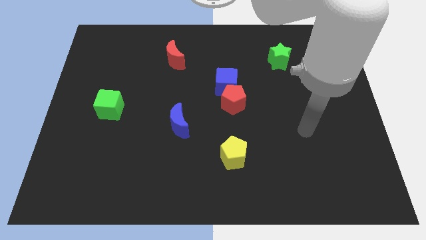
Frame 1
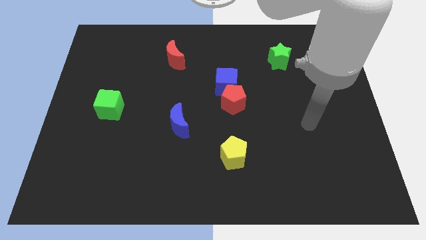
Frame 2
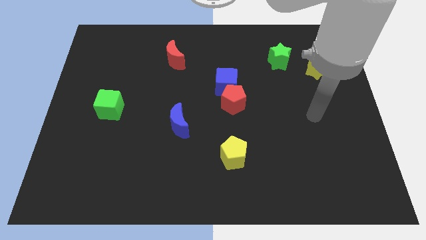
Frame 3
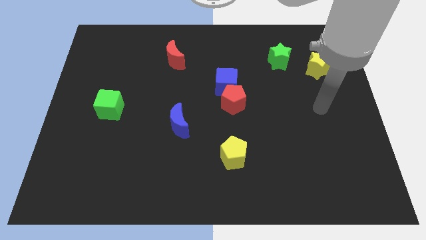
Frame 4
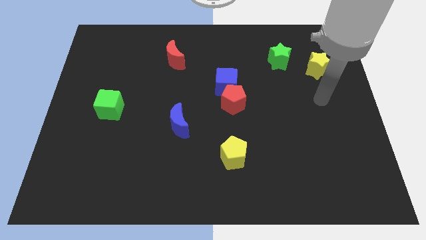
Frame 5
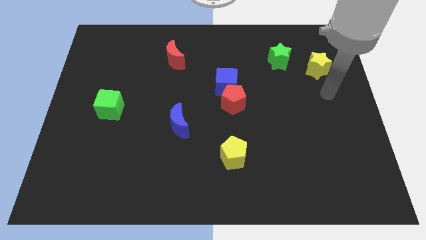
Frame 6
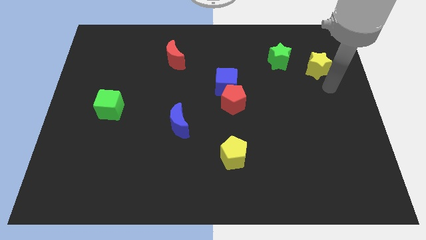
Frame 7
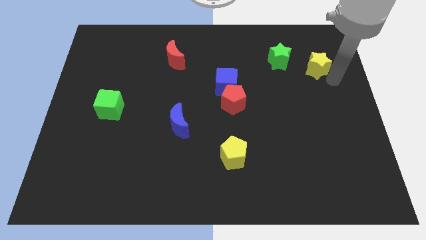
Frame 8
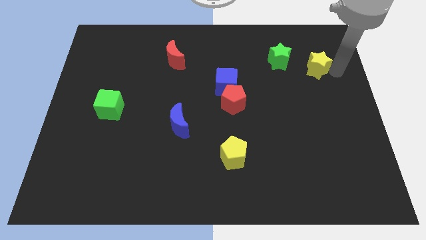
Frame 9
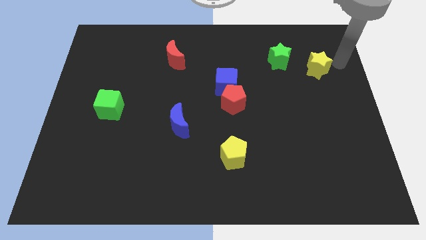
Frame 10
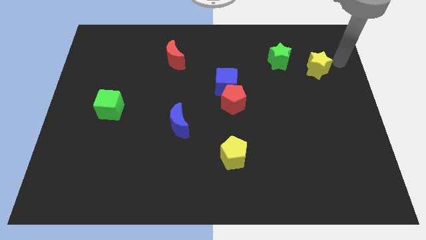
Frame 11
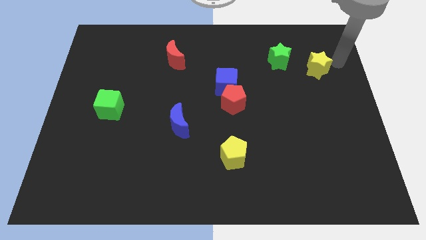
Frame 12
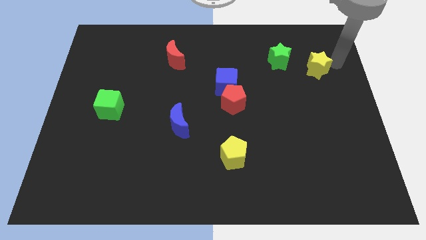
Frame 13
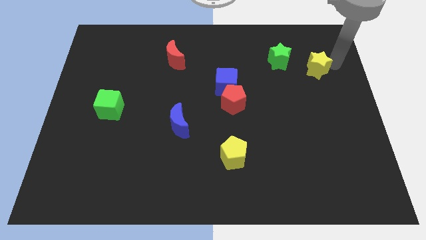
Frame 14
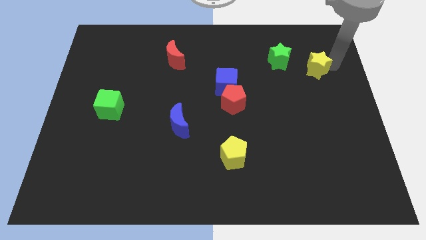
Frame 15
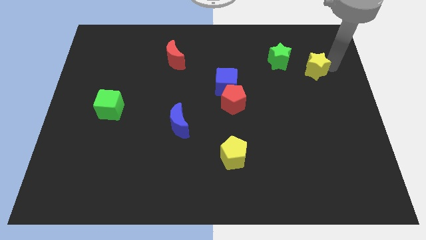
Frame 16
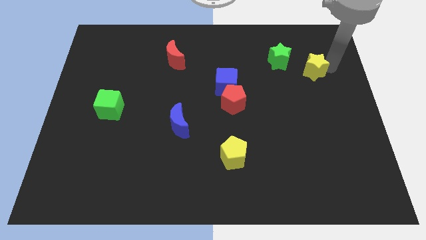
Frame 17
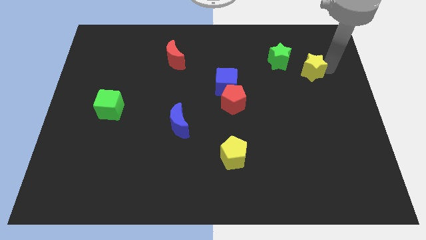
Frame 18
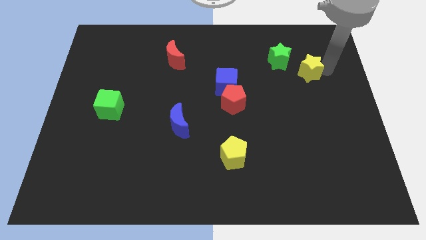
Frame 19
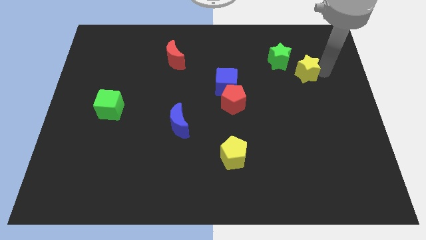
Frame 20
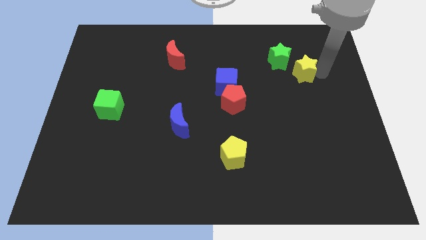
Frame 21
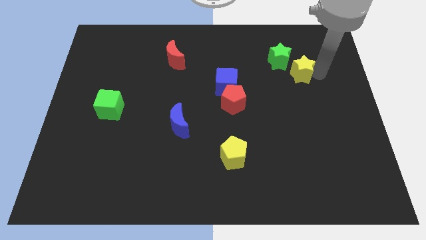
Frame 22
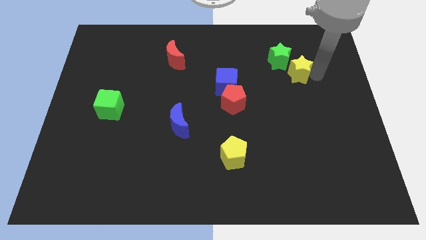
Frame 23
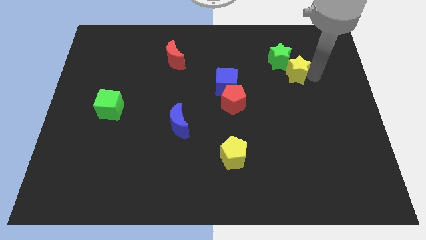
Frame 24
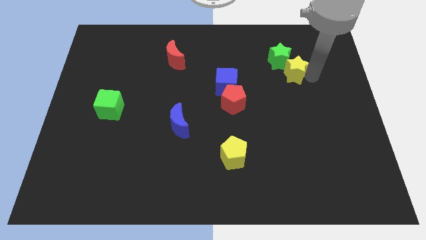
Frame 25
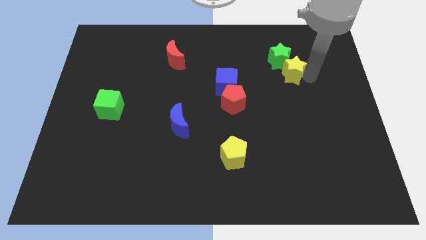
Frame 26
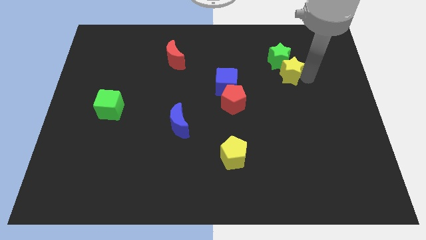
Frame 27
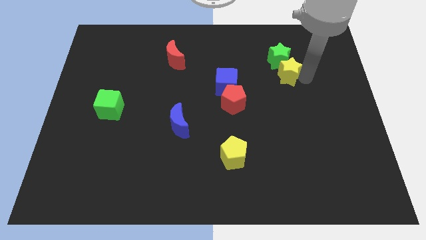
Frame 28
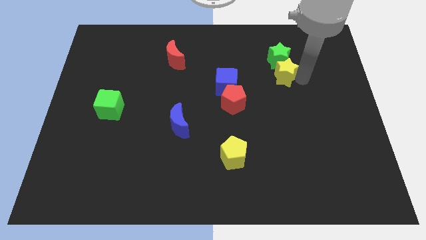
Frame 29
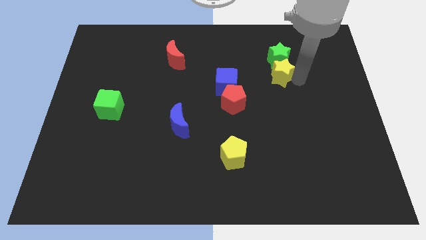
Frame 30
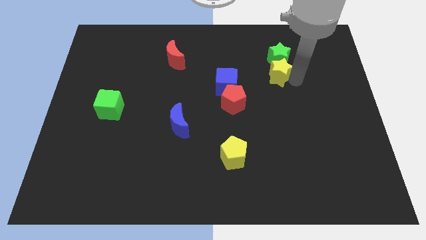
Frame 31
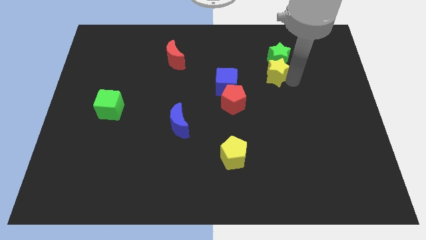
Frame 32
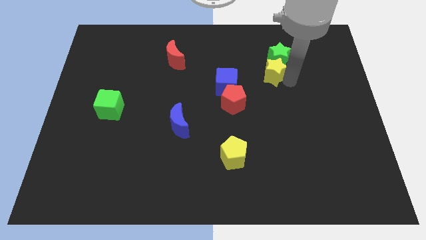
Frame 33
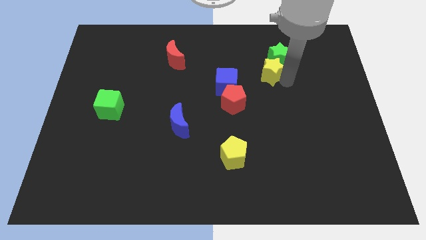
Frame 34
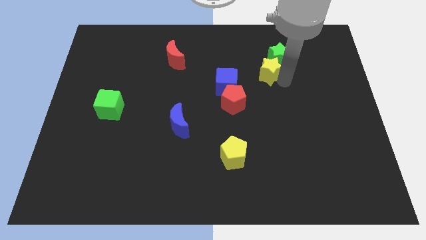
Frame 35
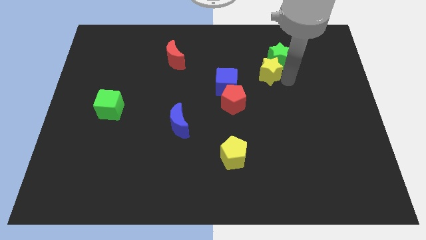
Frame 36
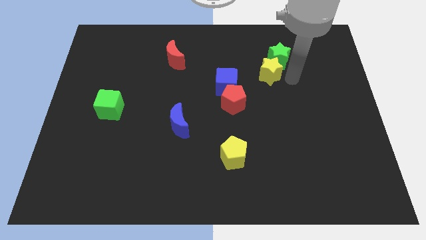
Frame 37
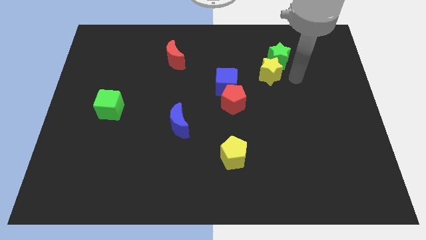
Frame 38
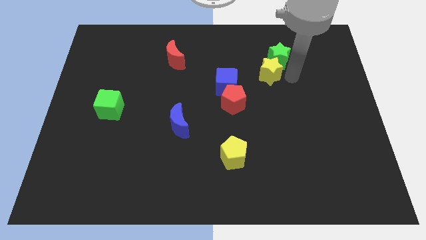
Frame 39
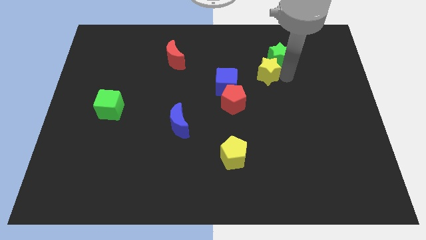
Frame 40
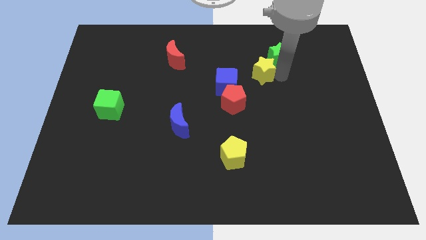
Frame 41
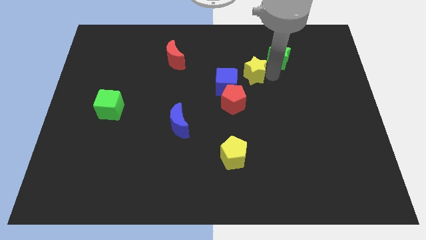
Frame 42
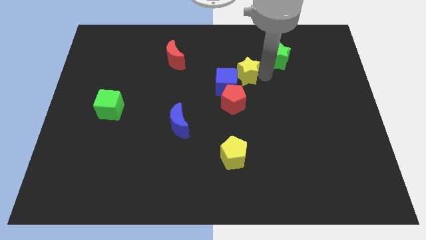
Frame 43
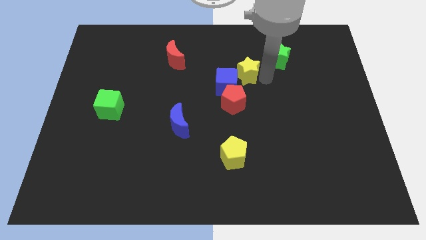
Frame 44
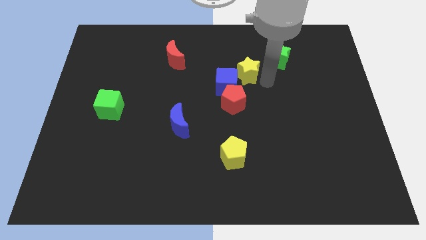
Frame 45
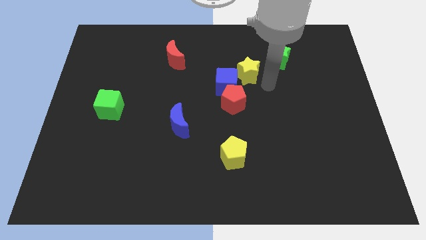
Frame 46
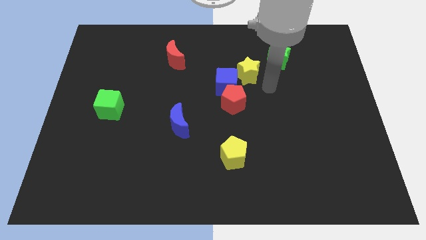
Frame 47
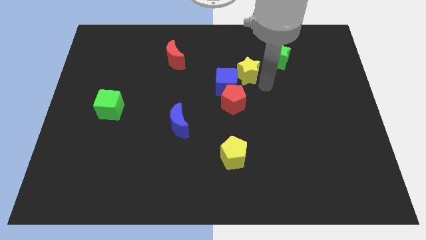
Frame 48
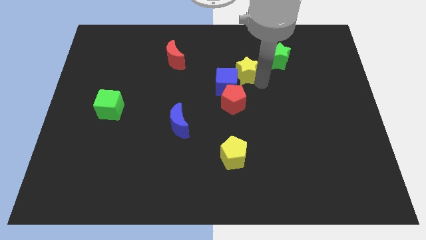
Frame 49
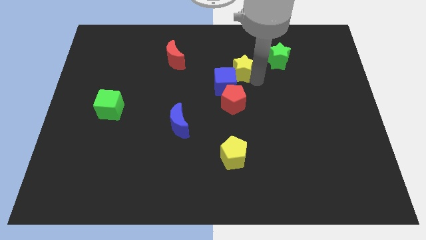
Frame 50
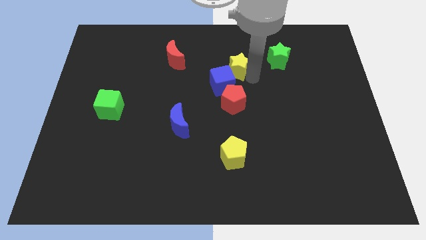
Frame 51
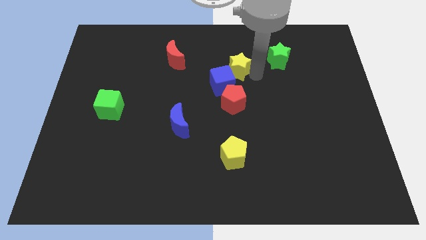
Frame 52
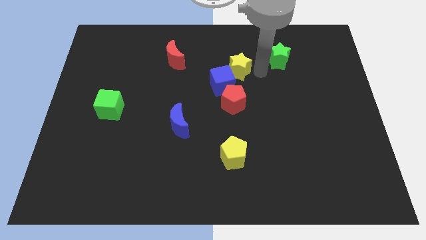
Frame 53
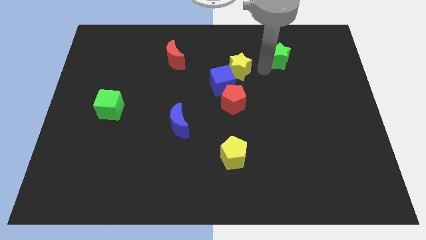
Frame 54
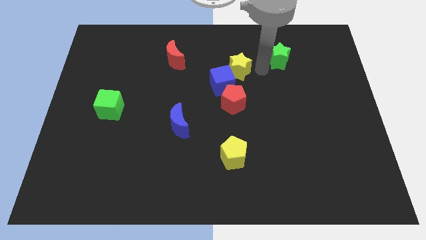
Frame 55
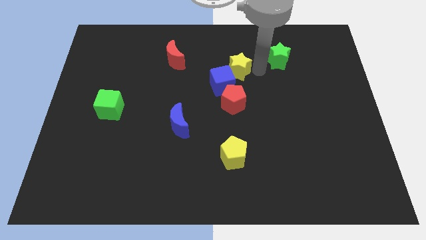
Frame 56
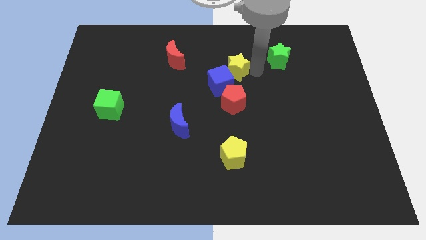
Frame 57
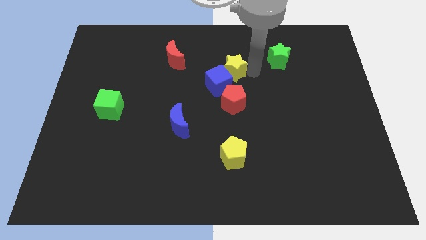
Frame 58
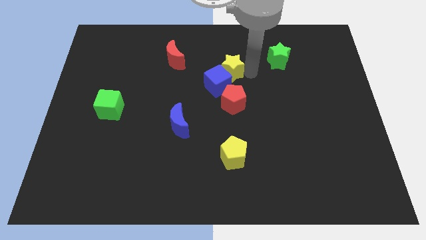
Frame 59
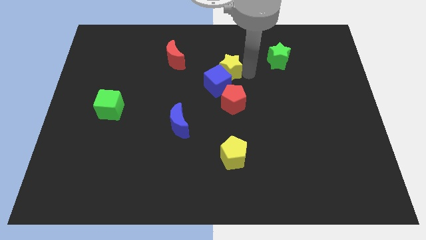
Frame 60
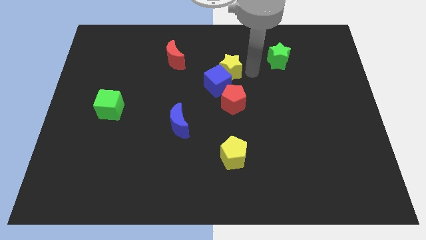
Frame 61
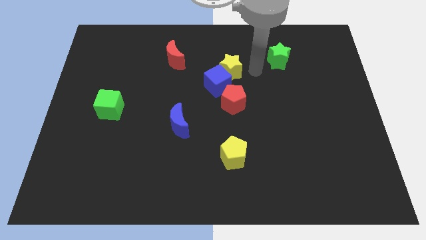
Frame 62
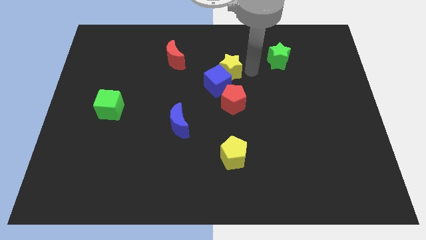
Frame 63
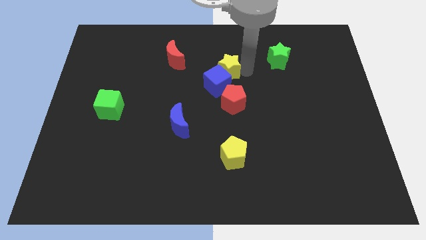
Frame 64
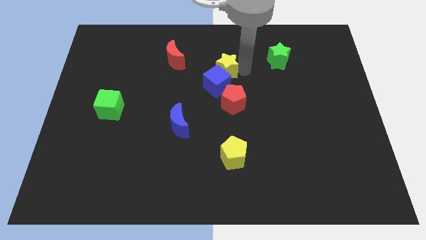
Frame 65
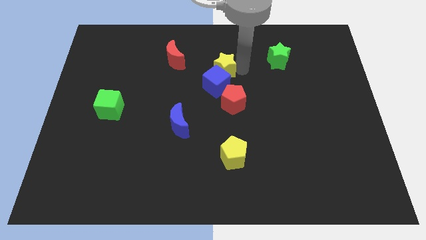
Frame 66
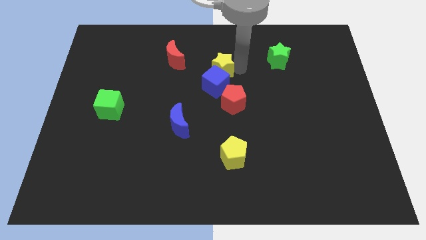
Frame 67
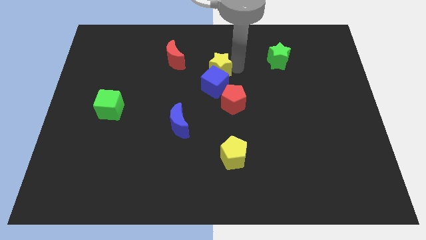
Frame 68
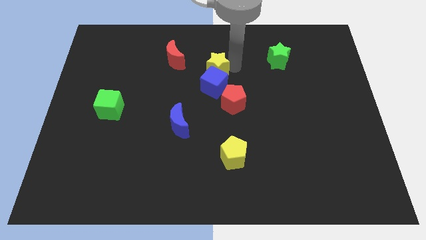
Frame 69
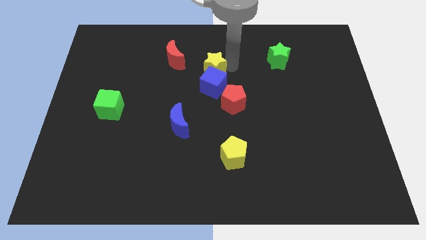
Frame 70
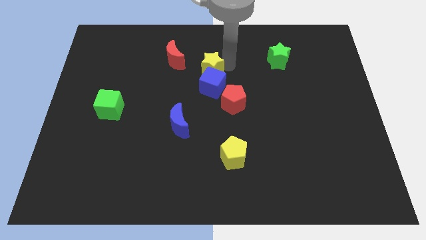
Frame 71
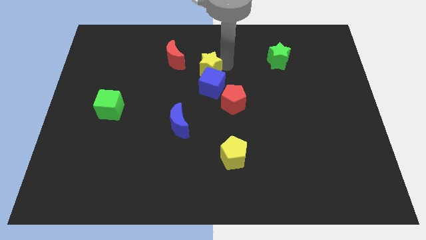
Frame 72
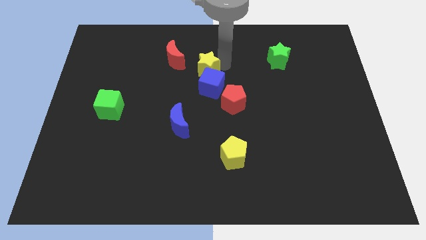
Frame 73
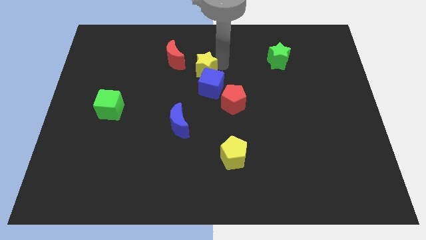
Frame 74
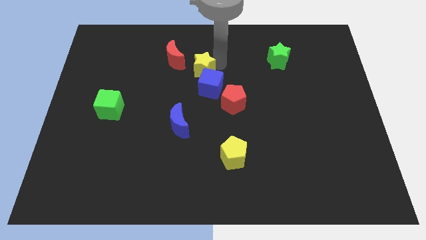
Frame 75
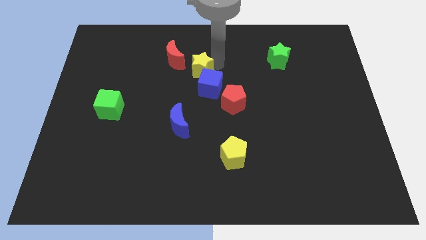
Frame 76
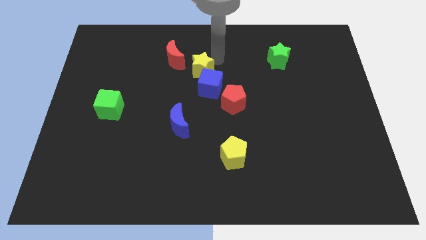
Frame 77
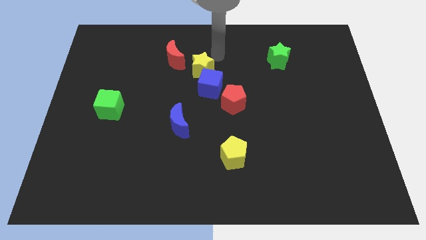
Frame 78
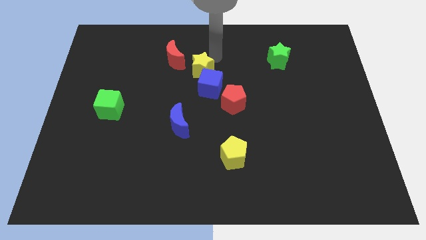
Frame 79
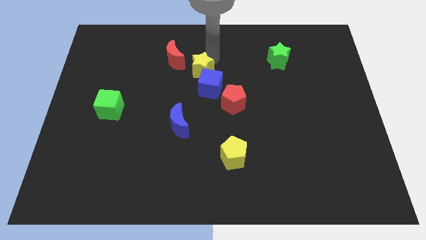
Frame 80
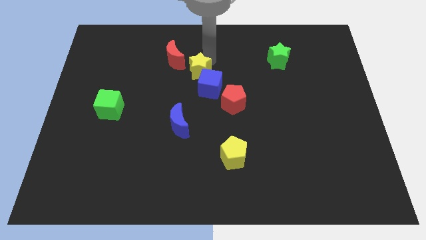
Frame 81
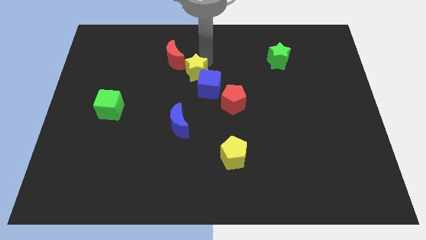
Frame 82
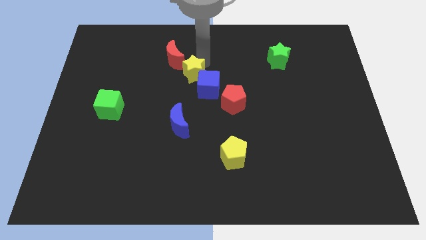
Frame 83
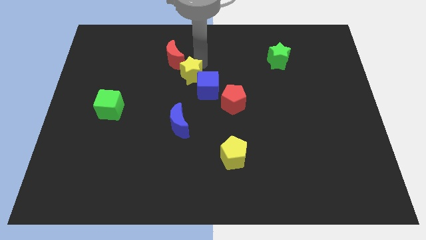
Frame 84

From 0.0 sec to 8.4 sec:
slide the yellow star above the blue moon
